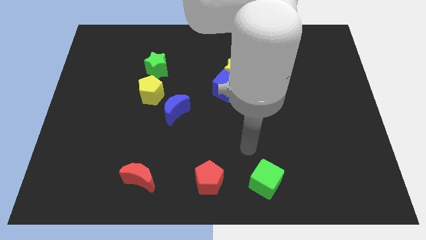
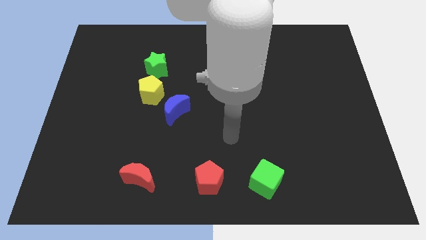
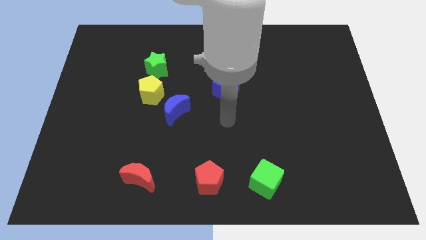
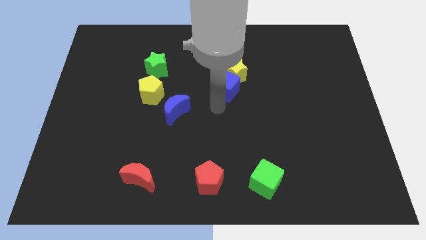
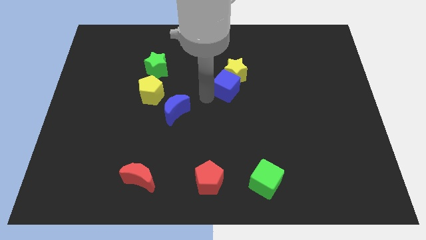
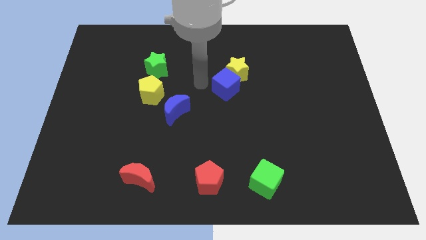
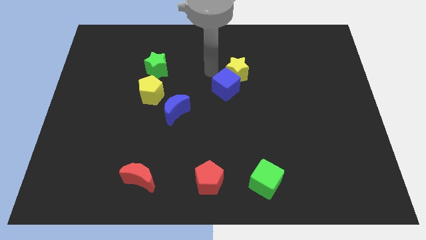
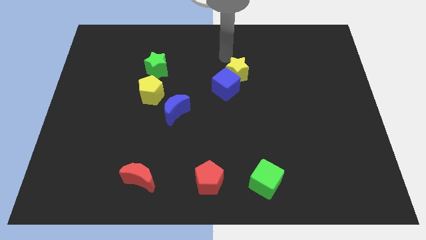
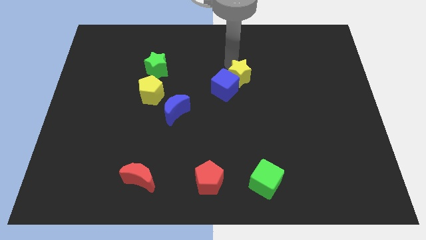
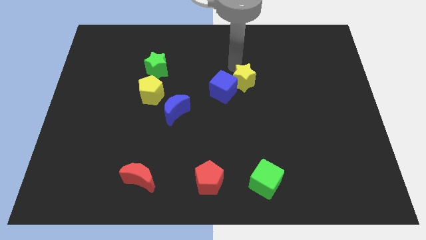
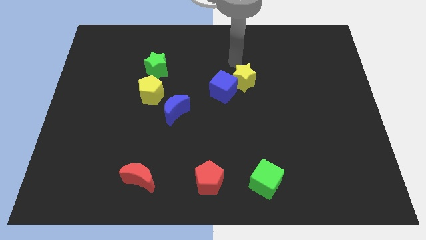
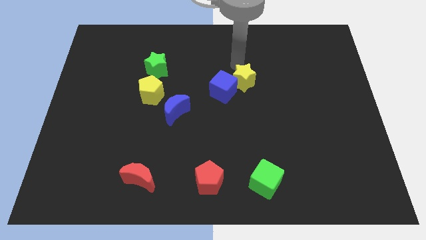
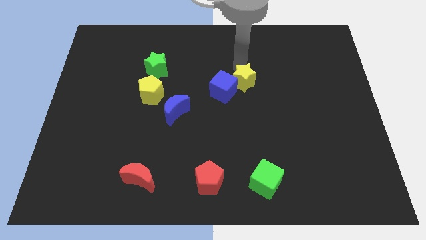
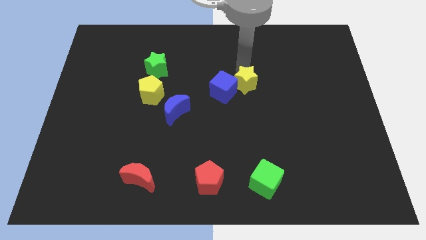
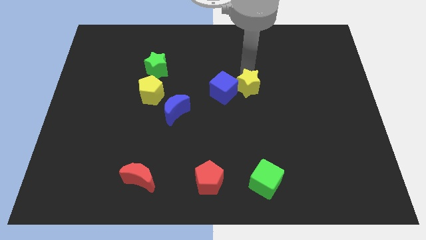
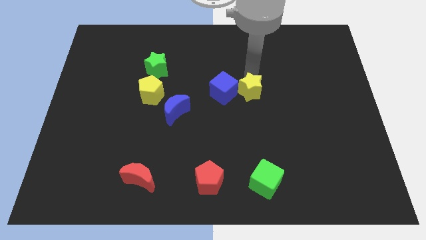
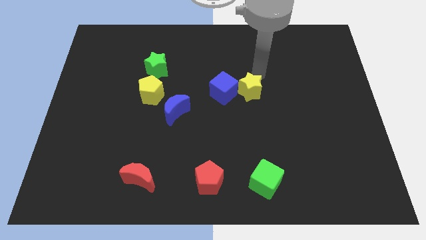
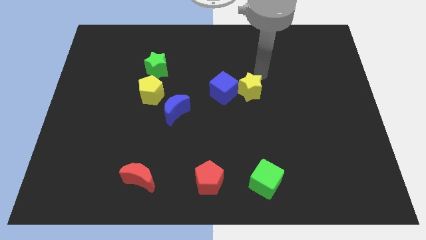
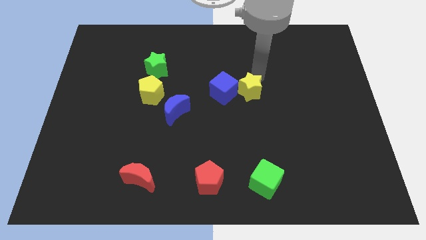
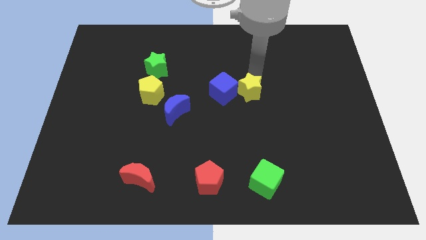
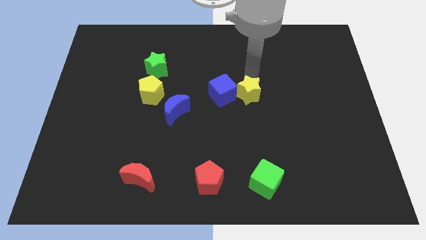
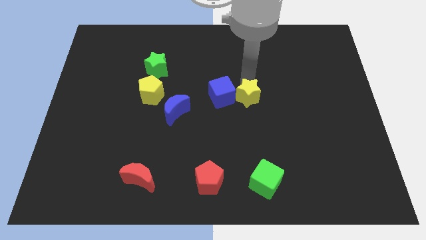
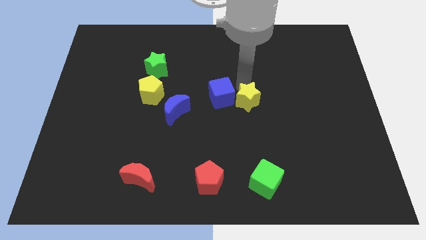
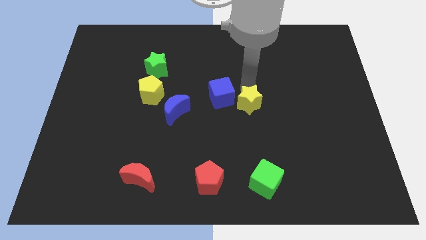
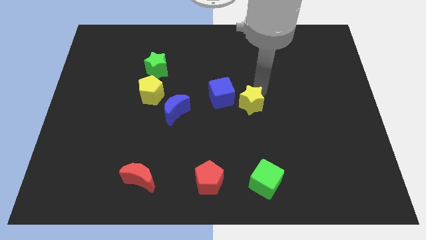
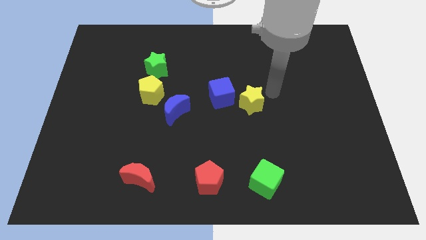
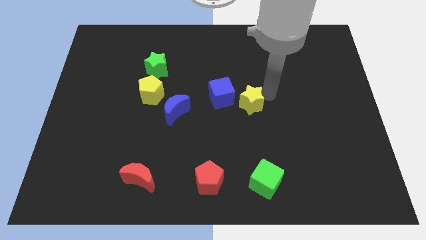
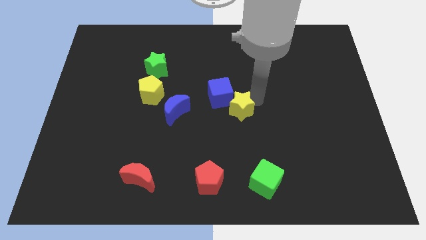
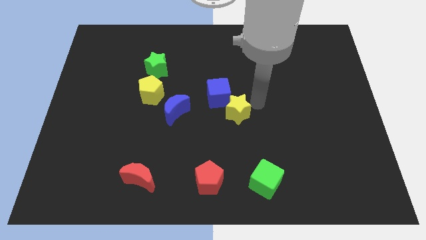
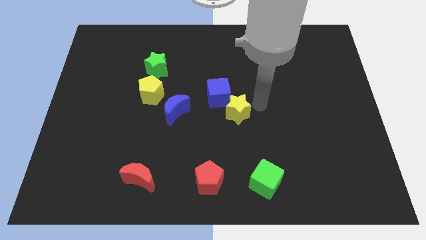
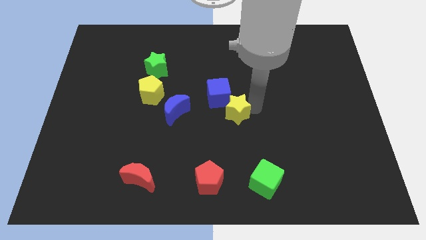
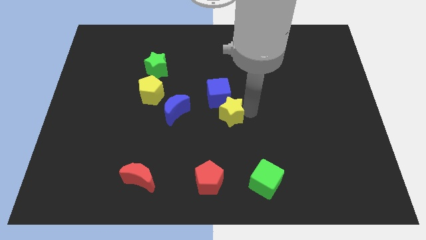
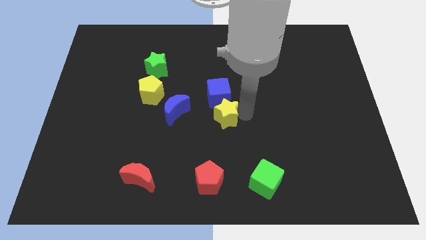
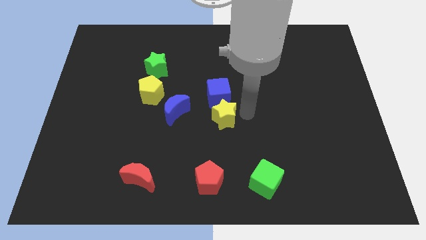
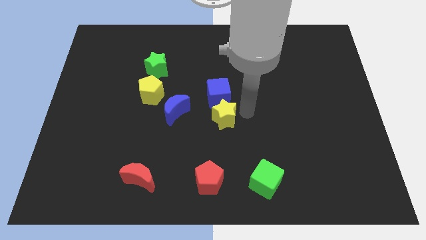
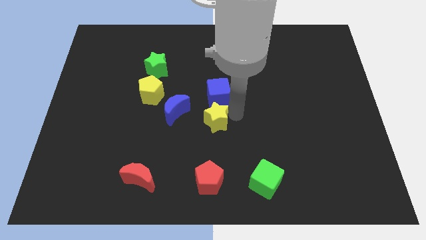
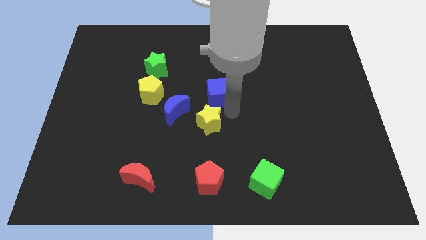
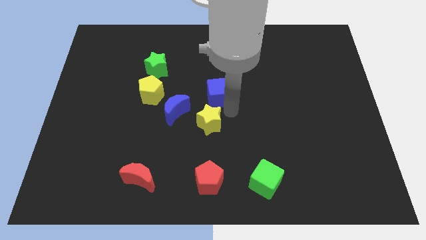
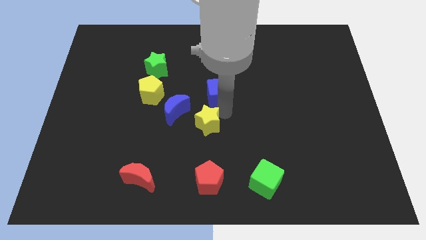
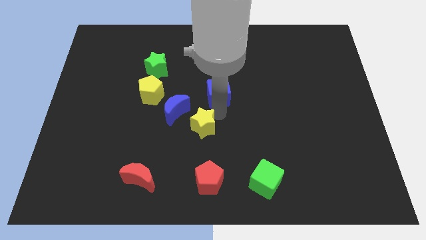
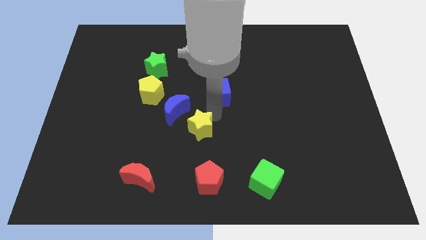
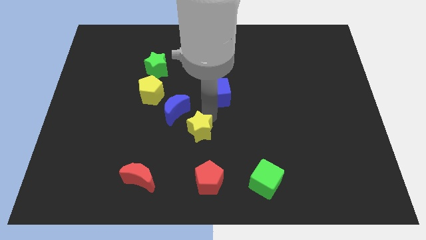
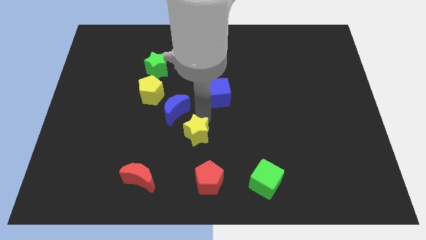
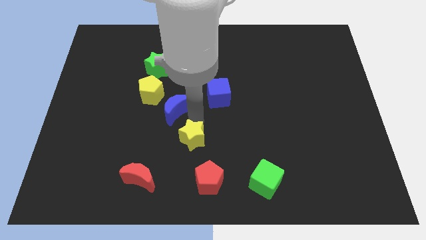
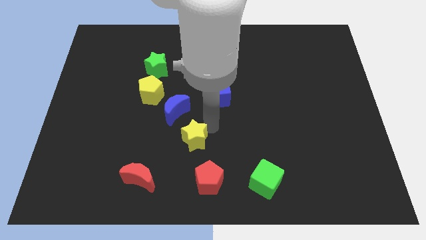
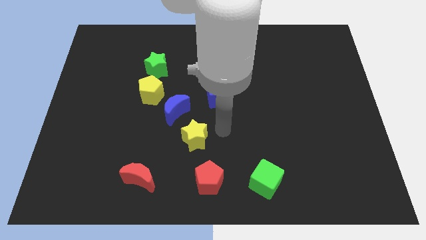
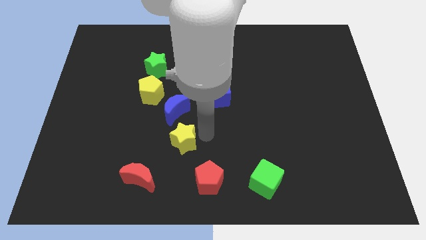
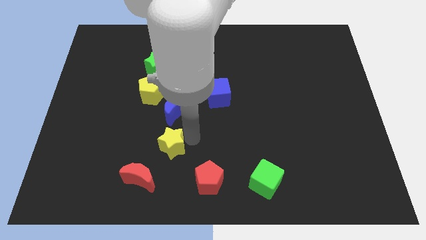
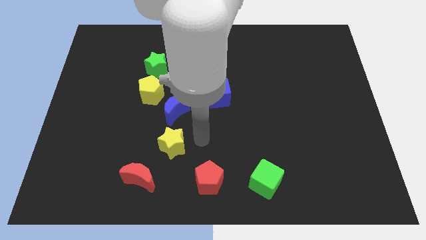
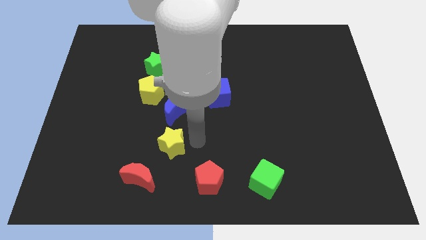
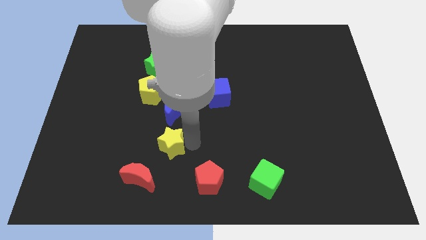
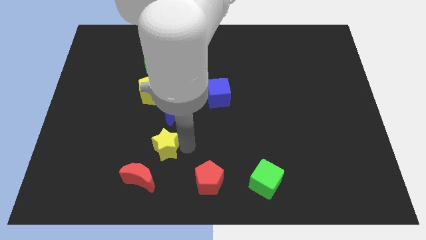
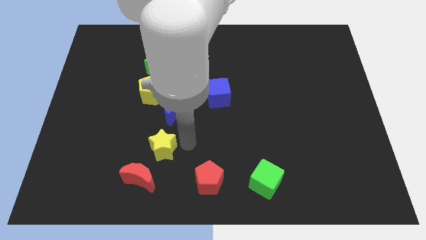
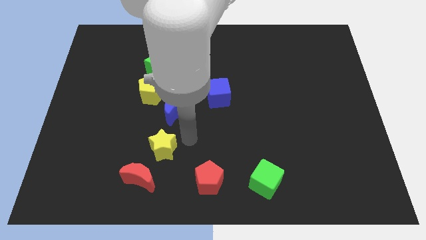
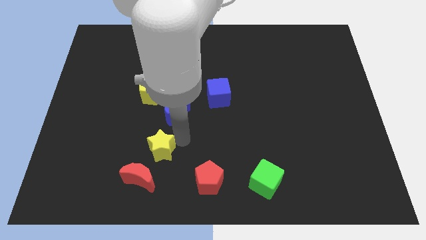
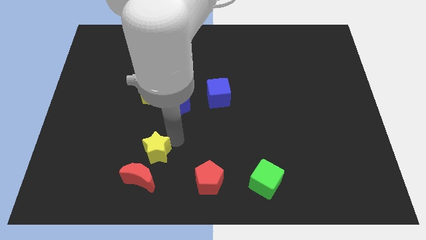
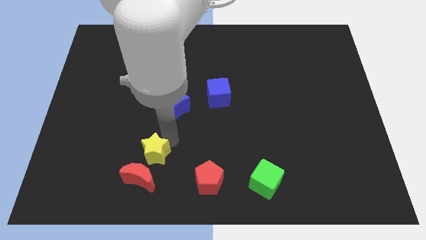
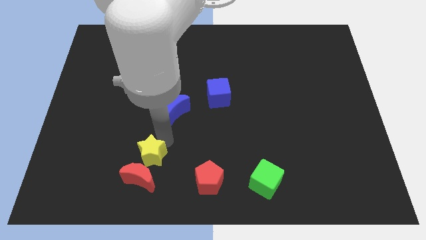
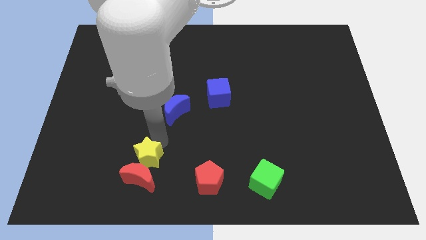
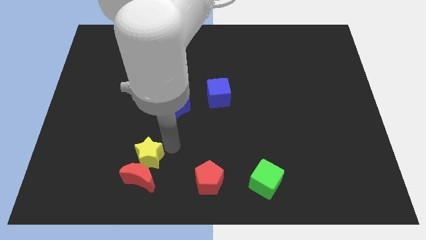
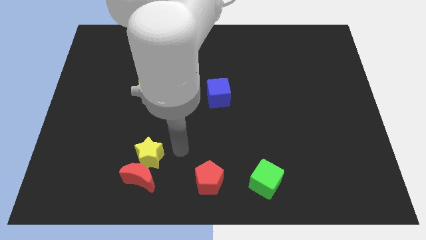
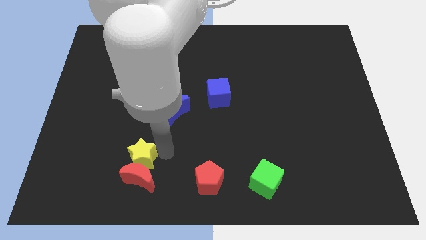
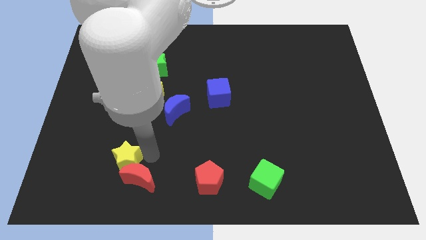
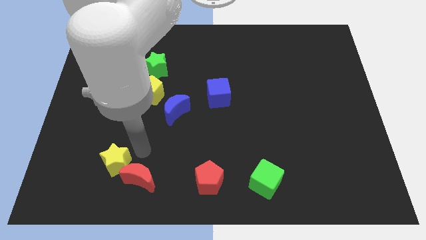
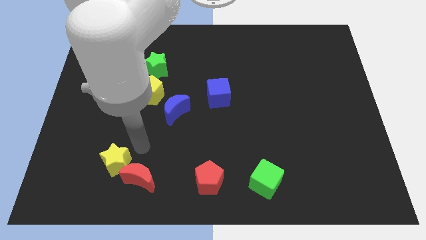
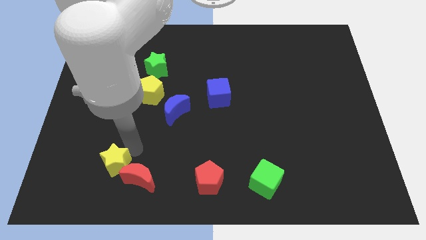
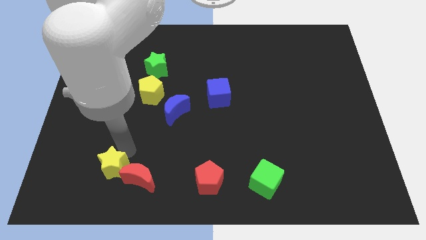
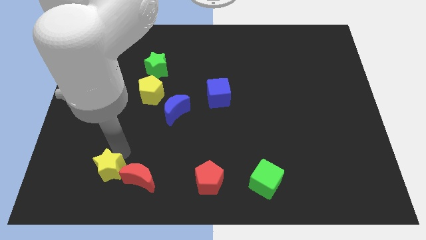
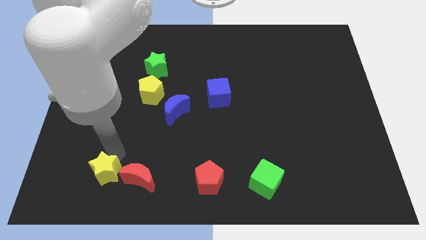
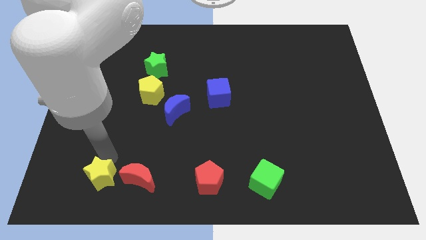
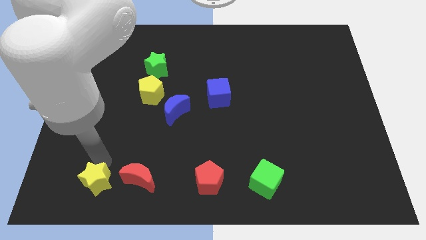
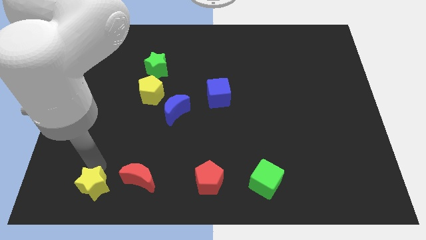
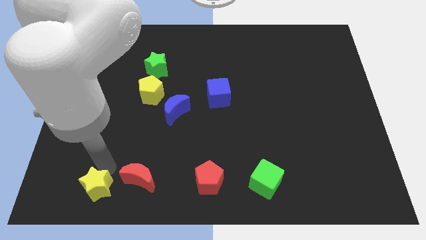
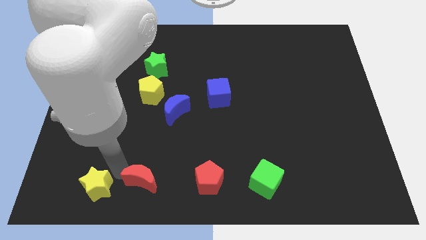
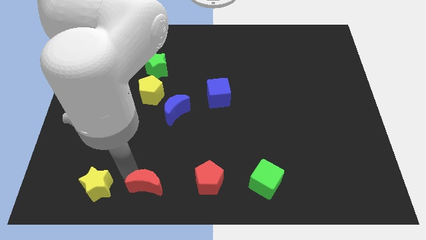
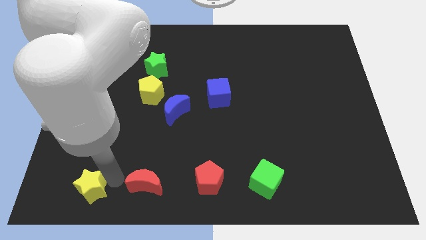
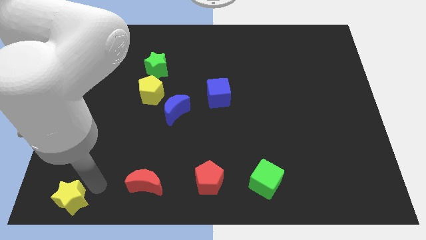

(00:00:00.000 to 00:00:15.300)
slide the yellow star to the bottom left of the board
